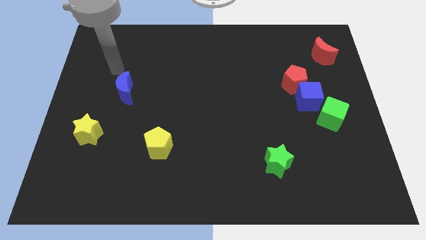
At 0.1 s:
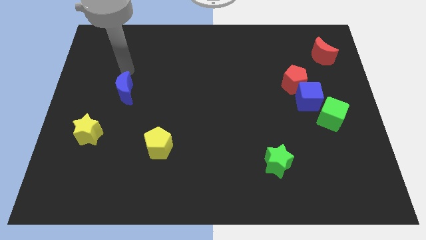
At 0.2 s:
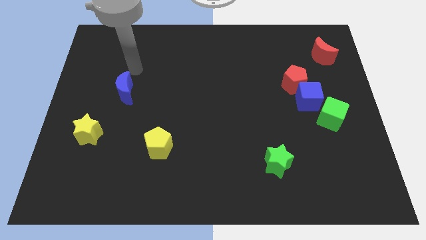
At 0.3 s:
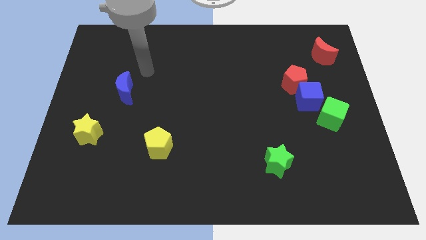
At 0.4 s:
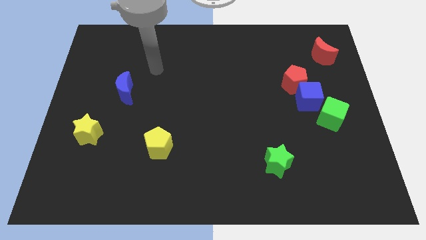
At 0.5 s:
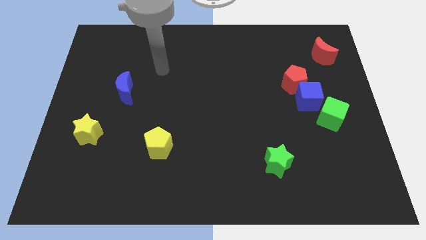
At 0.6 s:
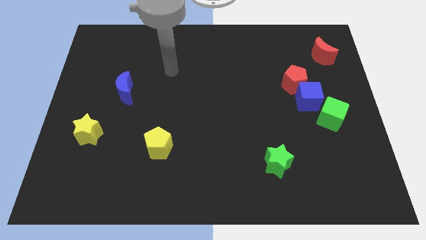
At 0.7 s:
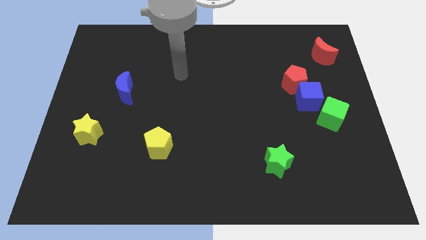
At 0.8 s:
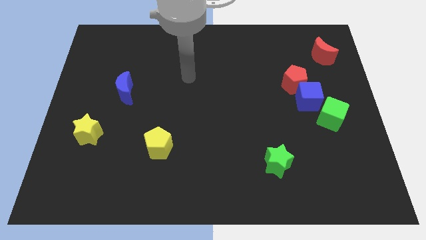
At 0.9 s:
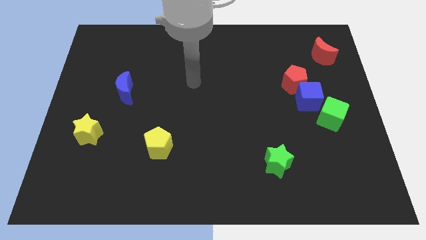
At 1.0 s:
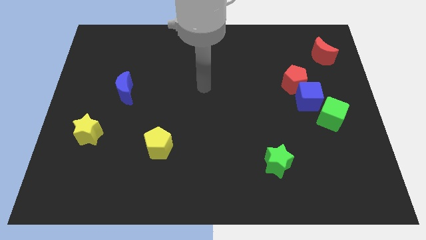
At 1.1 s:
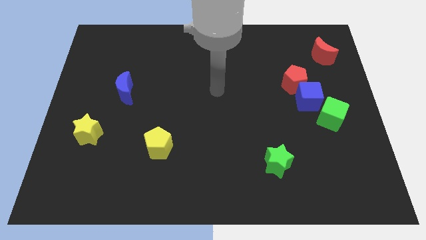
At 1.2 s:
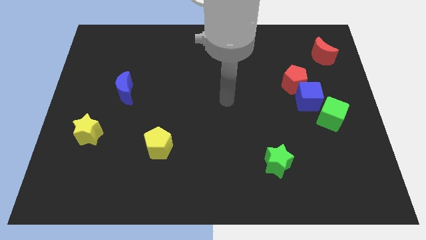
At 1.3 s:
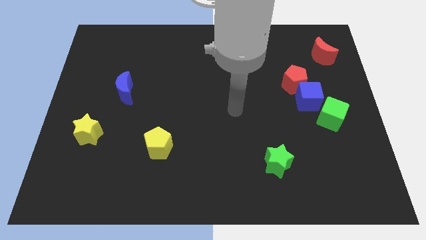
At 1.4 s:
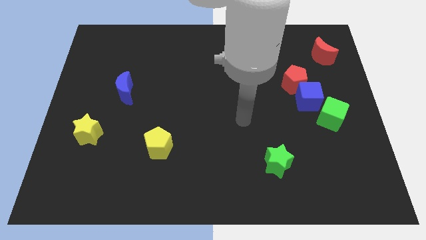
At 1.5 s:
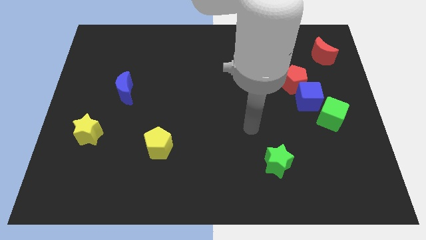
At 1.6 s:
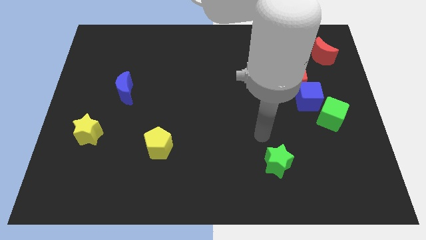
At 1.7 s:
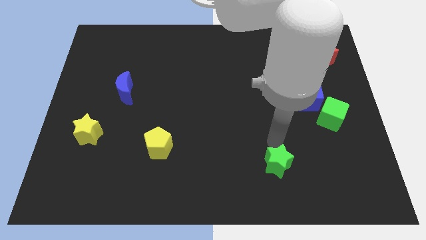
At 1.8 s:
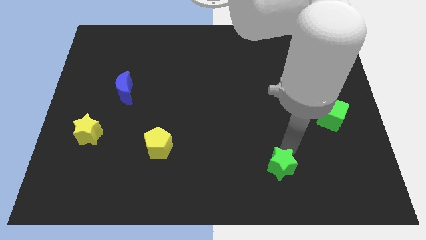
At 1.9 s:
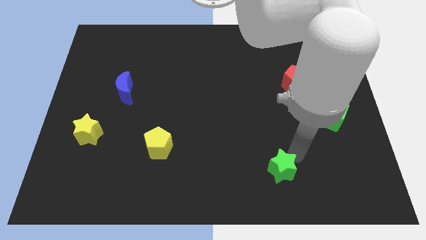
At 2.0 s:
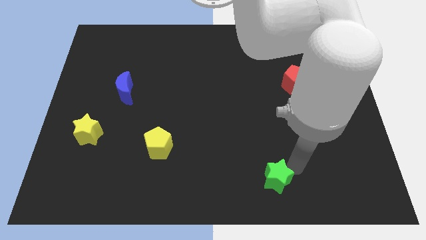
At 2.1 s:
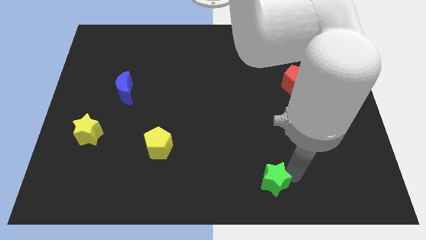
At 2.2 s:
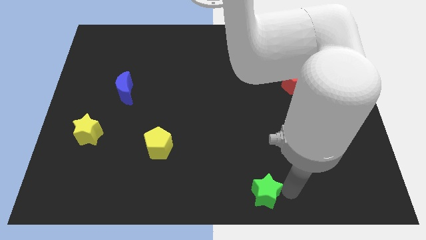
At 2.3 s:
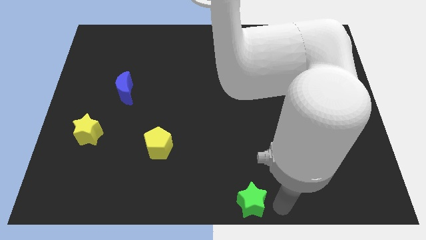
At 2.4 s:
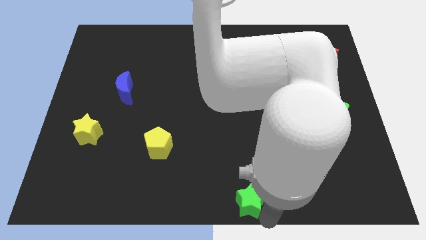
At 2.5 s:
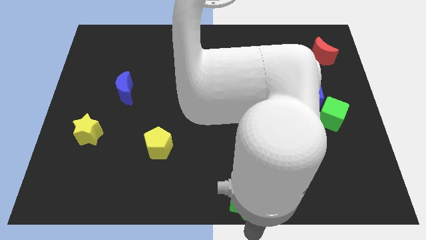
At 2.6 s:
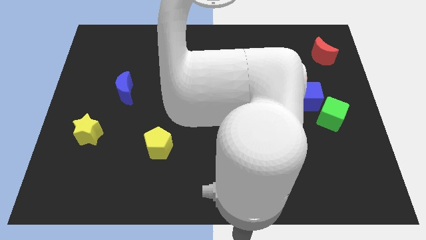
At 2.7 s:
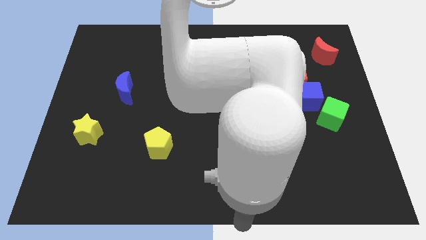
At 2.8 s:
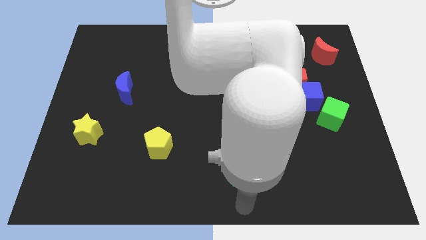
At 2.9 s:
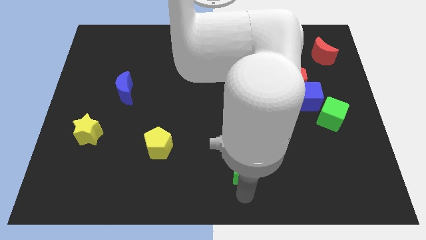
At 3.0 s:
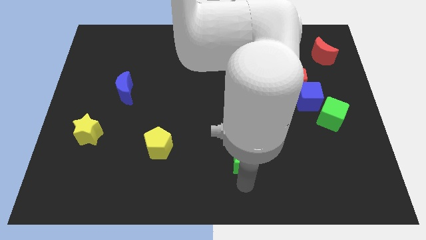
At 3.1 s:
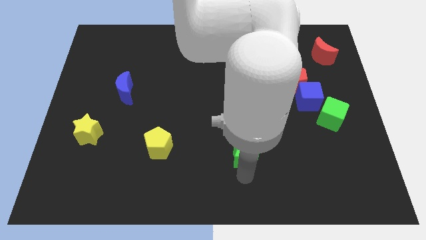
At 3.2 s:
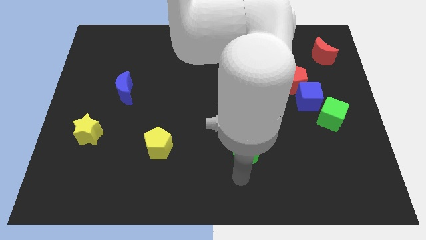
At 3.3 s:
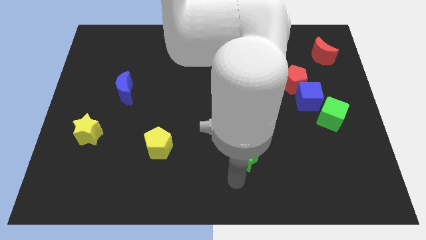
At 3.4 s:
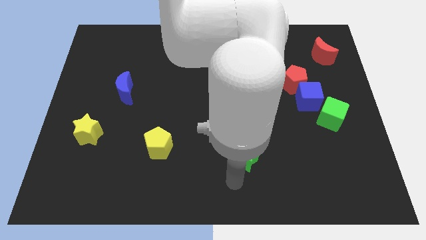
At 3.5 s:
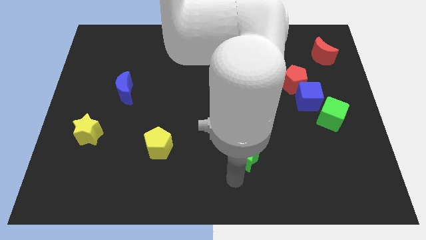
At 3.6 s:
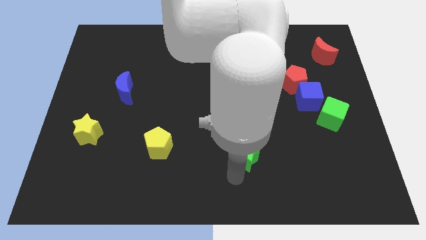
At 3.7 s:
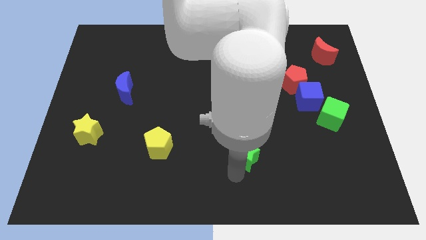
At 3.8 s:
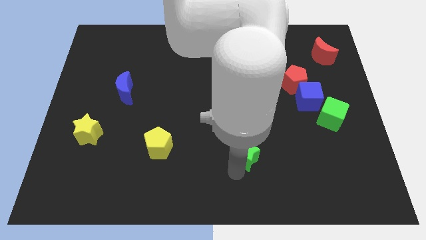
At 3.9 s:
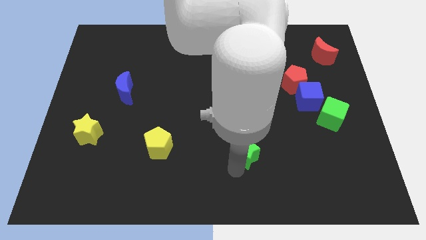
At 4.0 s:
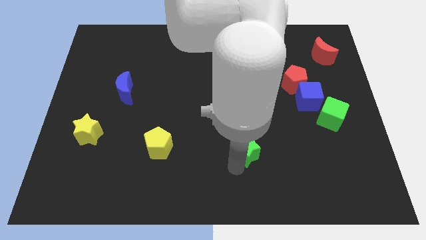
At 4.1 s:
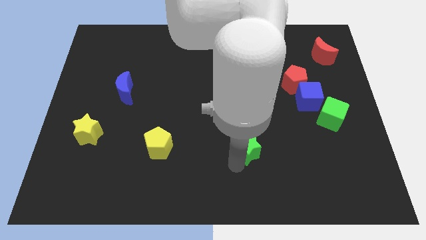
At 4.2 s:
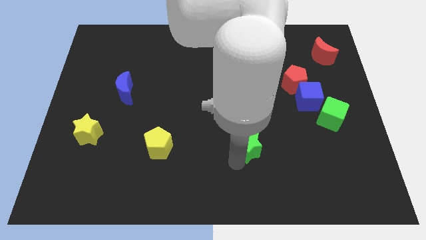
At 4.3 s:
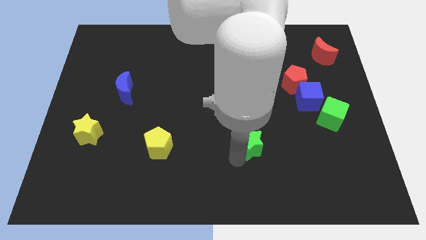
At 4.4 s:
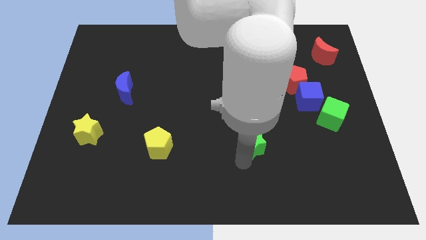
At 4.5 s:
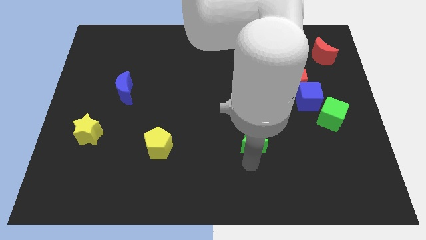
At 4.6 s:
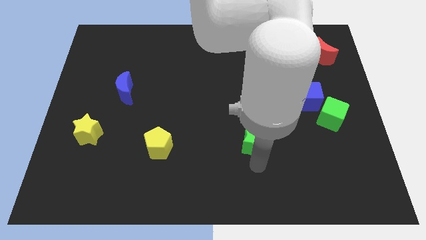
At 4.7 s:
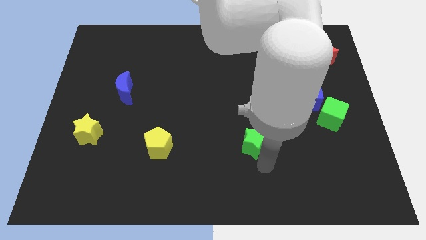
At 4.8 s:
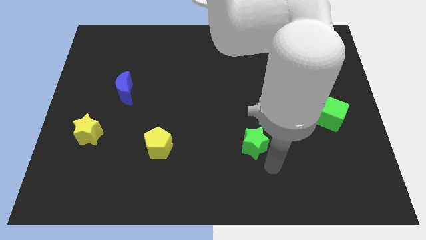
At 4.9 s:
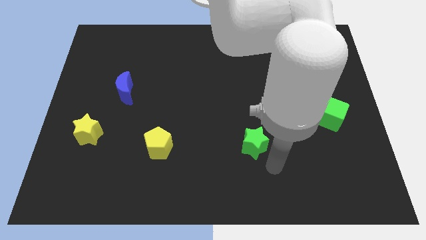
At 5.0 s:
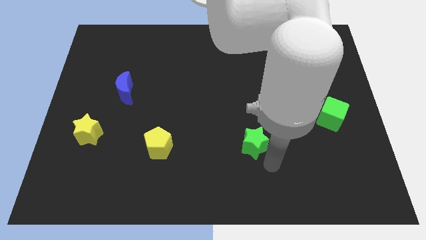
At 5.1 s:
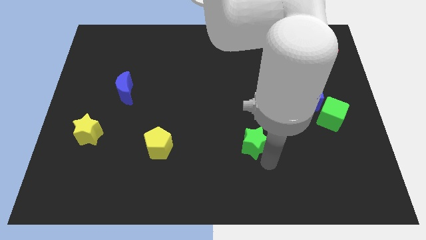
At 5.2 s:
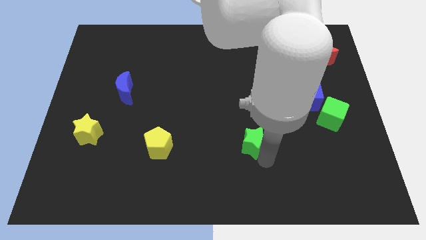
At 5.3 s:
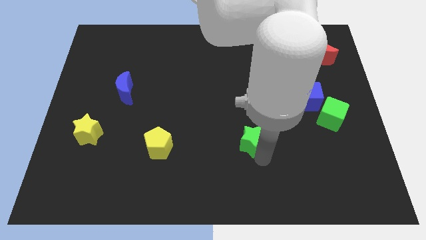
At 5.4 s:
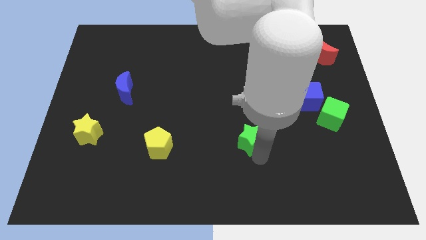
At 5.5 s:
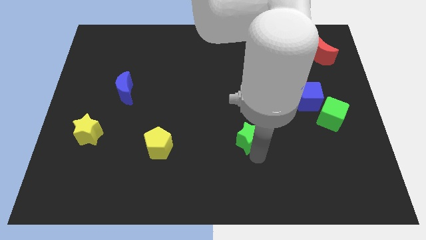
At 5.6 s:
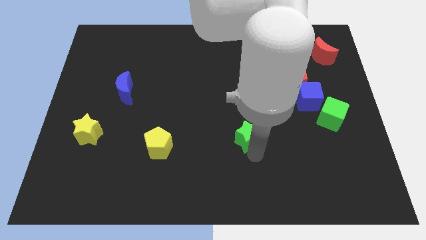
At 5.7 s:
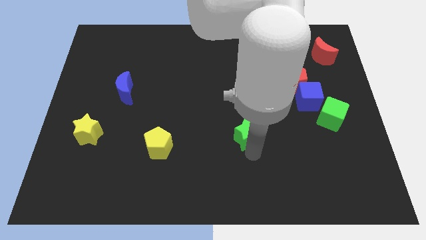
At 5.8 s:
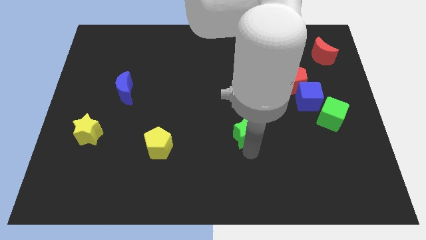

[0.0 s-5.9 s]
move the green star to the center of the board

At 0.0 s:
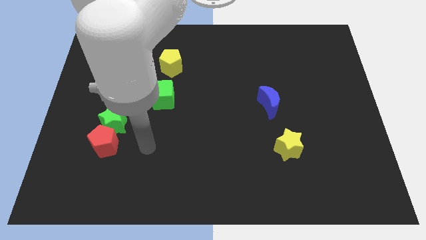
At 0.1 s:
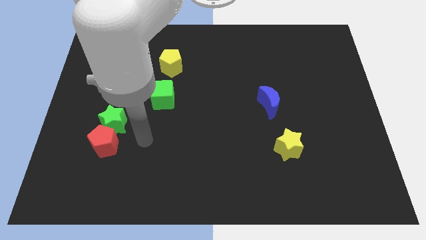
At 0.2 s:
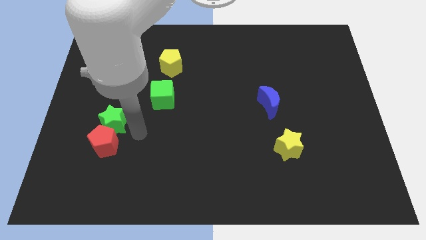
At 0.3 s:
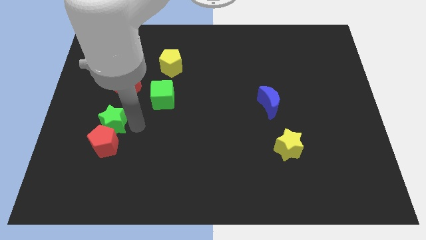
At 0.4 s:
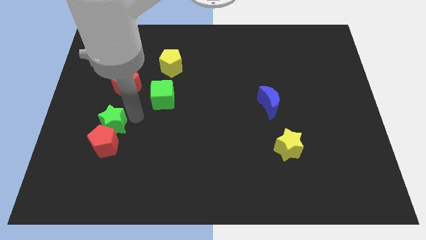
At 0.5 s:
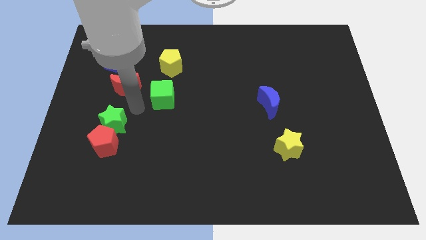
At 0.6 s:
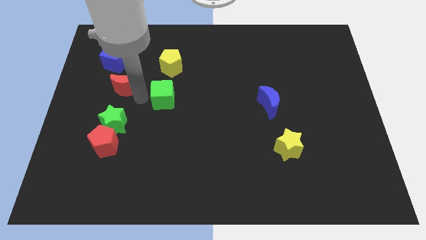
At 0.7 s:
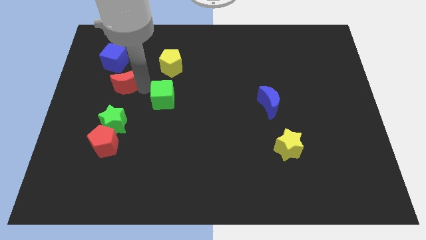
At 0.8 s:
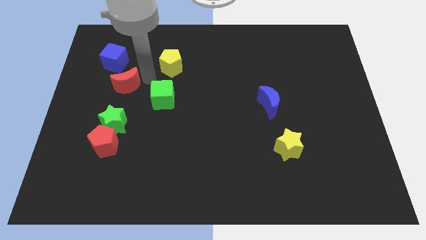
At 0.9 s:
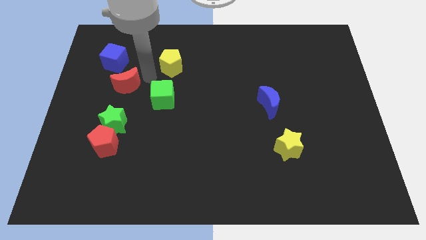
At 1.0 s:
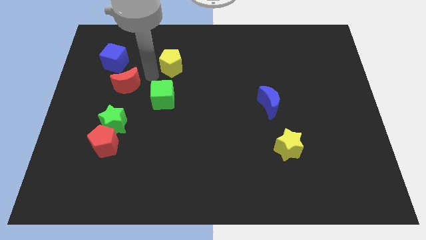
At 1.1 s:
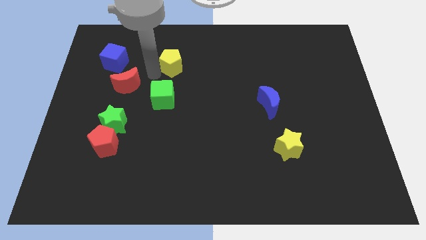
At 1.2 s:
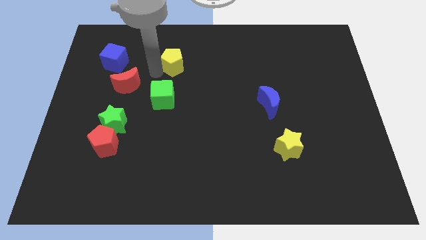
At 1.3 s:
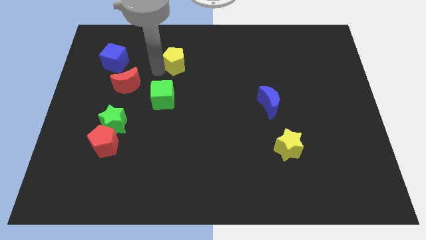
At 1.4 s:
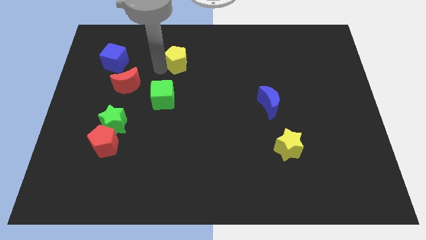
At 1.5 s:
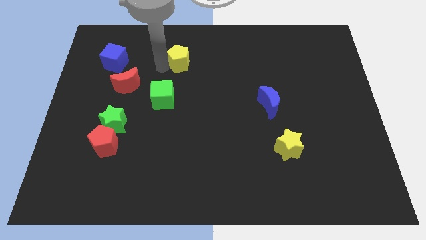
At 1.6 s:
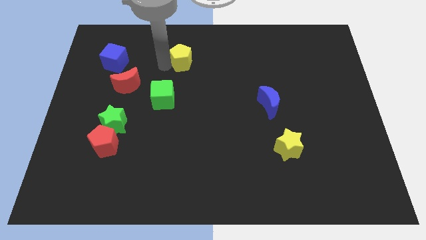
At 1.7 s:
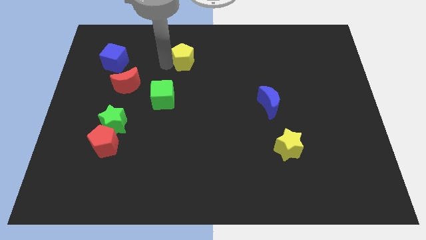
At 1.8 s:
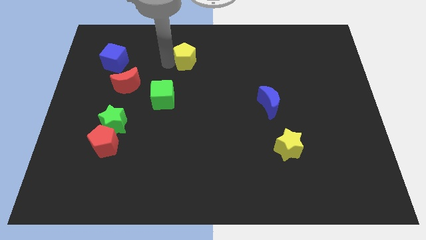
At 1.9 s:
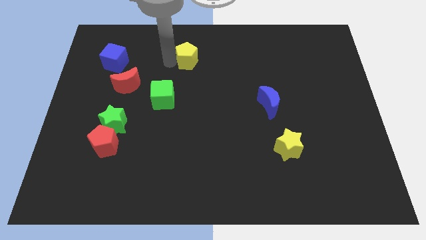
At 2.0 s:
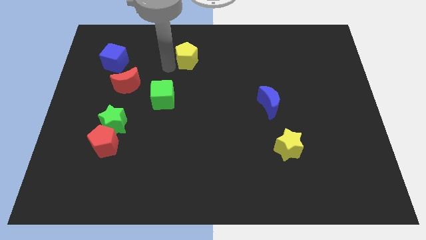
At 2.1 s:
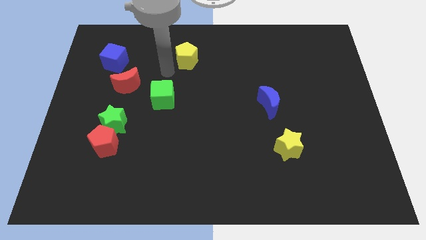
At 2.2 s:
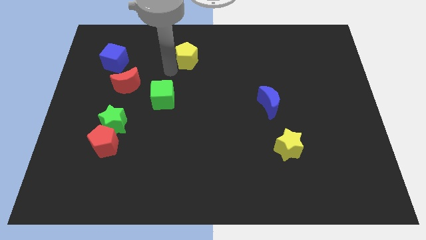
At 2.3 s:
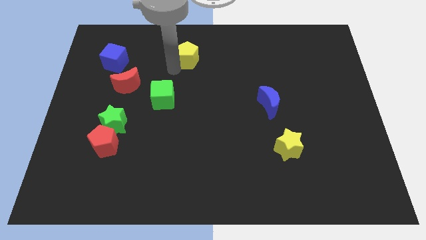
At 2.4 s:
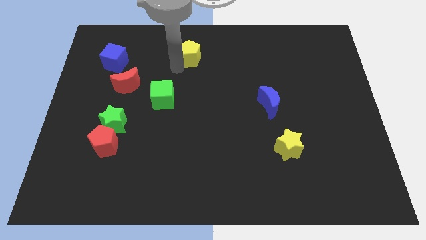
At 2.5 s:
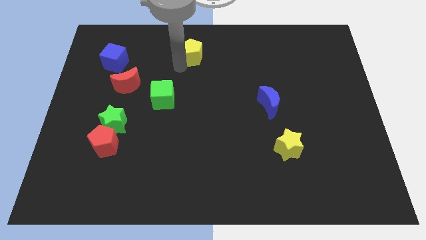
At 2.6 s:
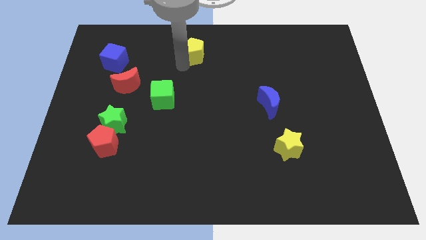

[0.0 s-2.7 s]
push the yellow pentagon to the top
